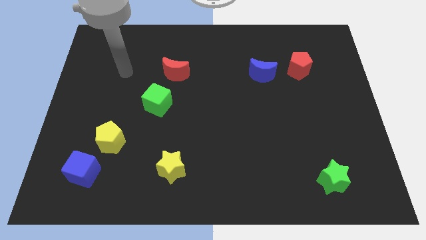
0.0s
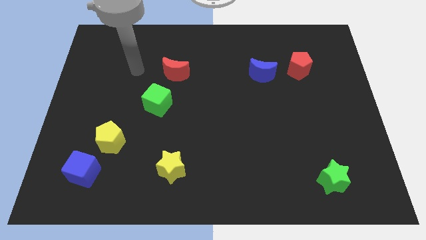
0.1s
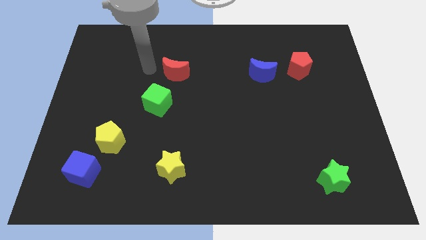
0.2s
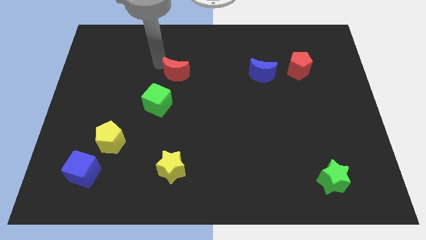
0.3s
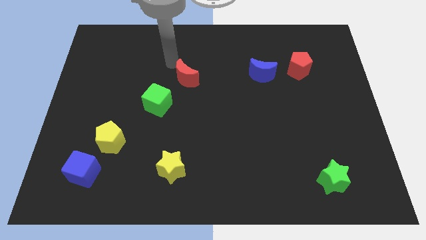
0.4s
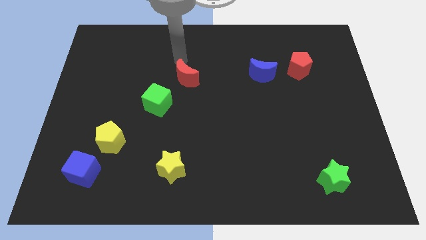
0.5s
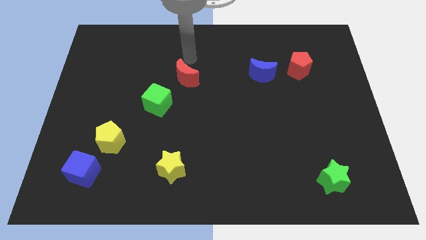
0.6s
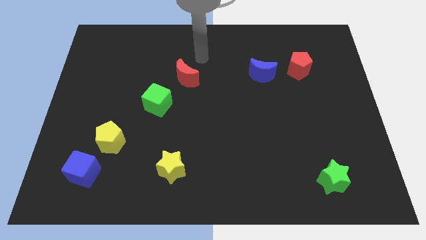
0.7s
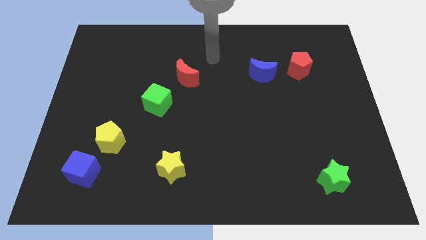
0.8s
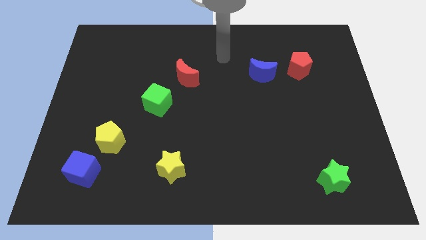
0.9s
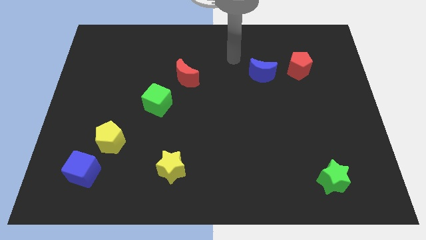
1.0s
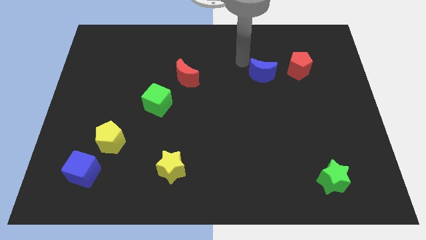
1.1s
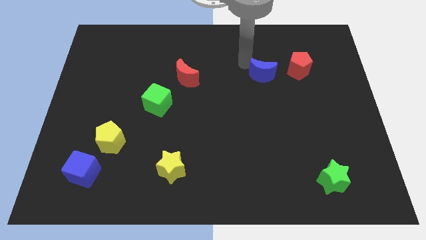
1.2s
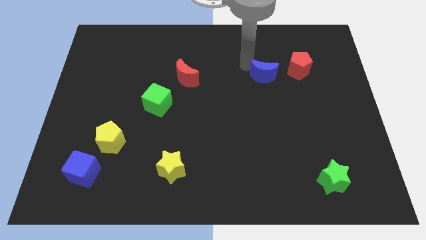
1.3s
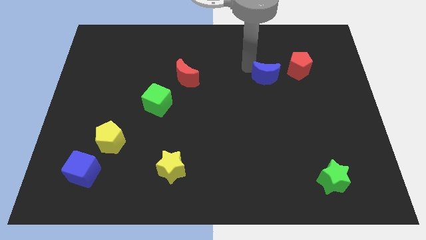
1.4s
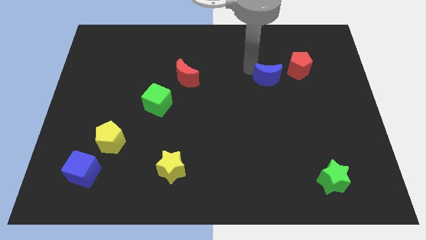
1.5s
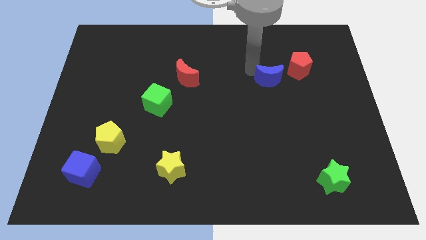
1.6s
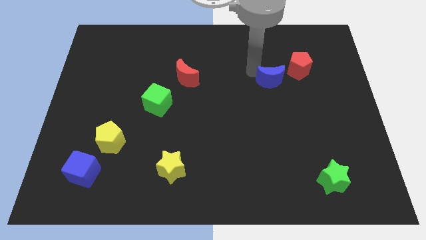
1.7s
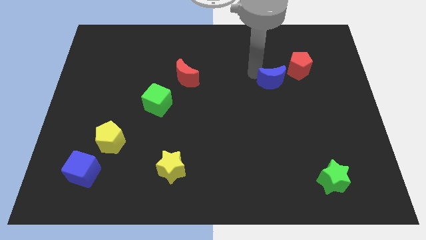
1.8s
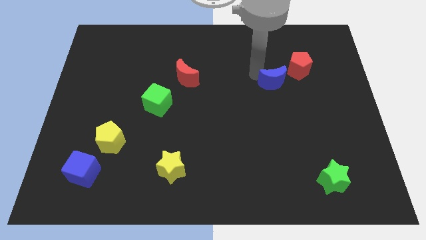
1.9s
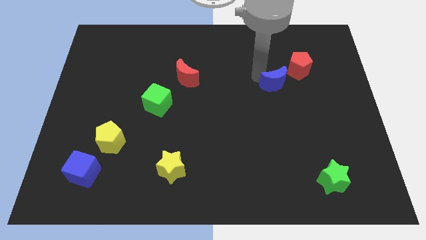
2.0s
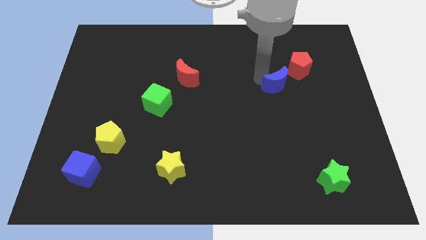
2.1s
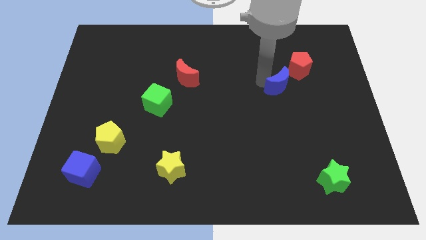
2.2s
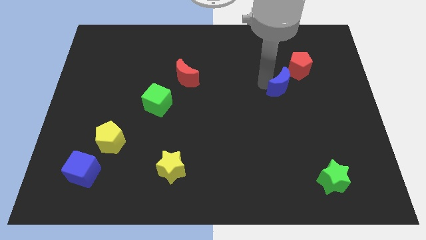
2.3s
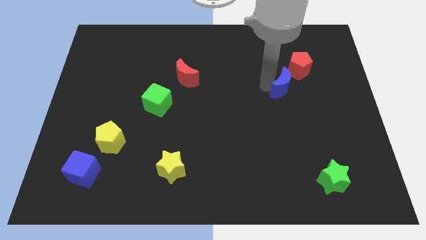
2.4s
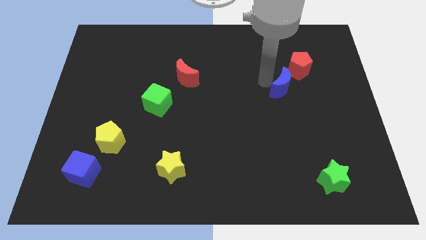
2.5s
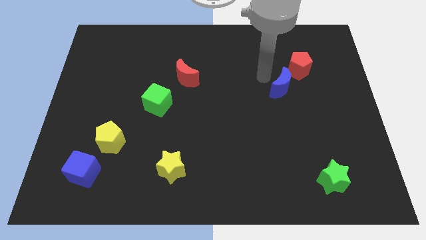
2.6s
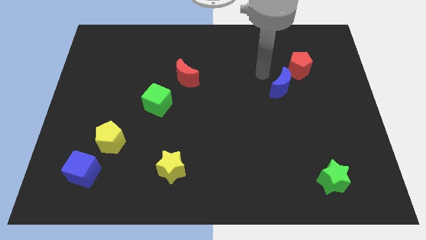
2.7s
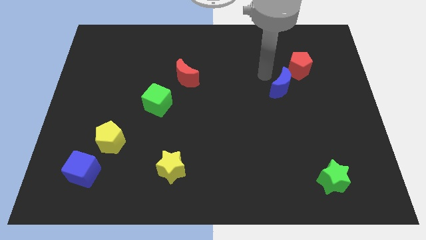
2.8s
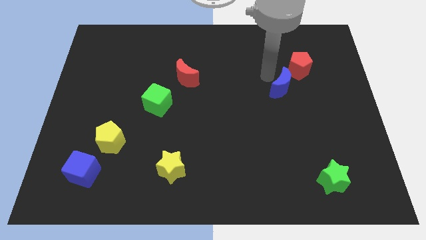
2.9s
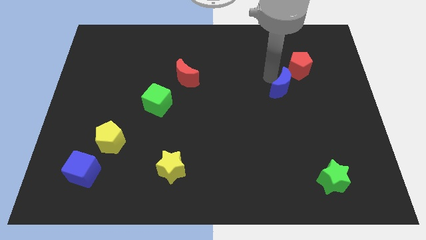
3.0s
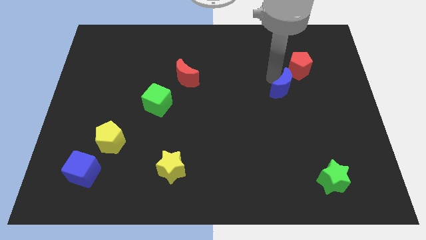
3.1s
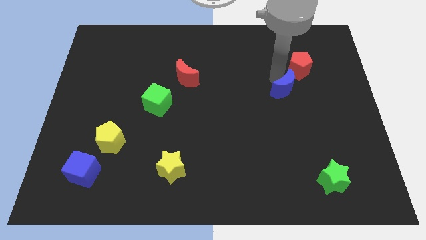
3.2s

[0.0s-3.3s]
slightly move the blue moon downwards and then right

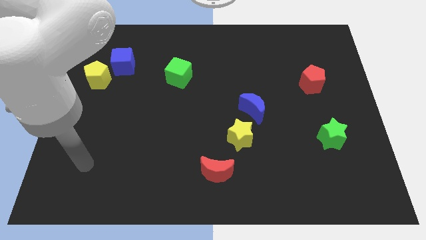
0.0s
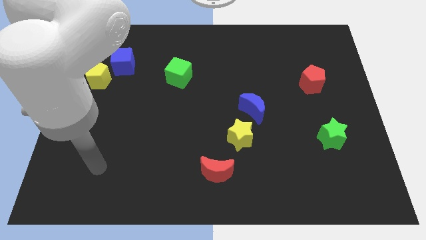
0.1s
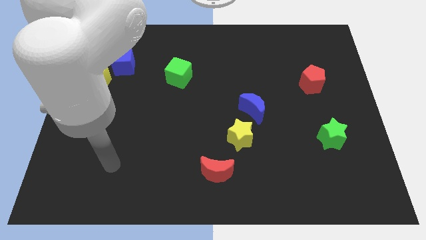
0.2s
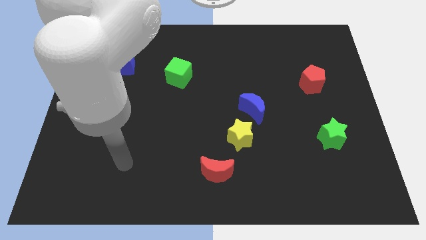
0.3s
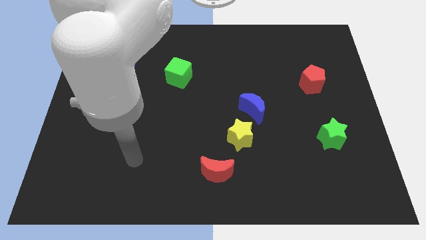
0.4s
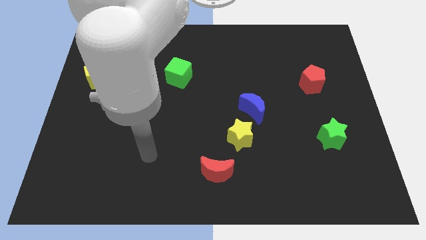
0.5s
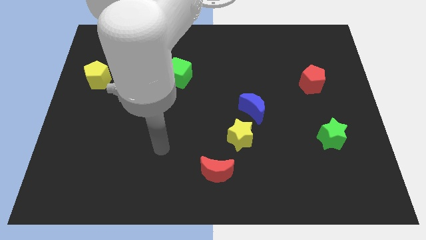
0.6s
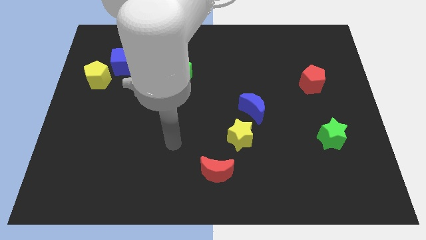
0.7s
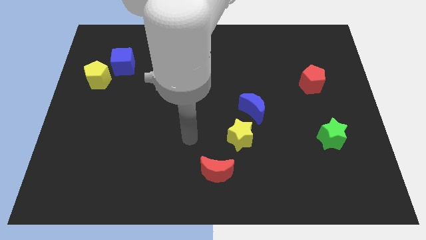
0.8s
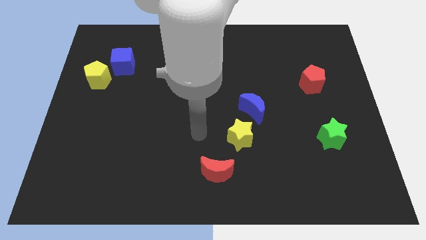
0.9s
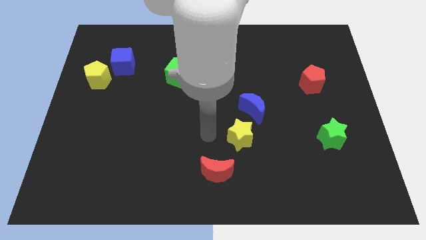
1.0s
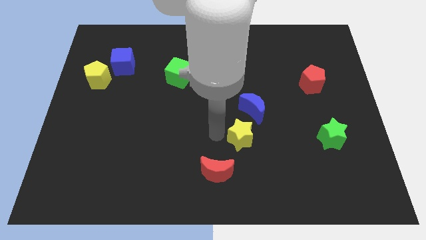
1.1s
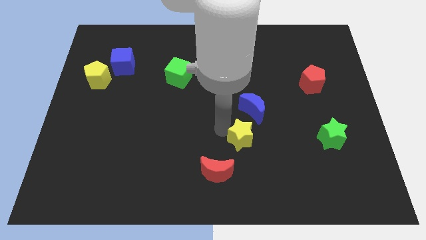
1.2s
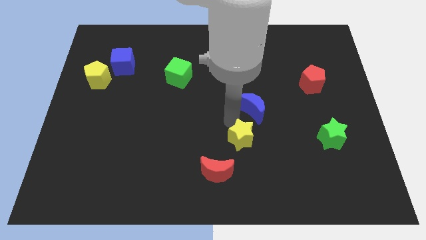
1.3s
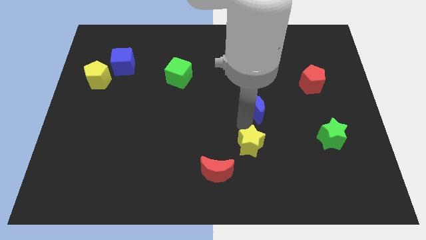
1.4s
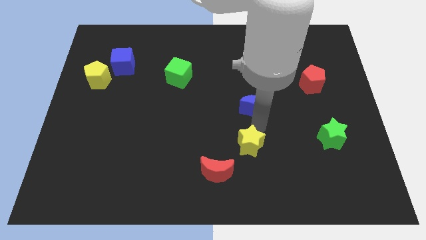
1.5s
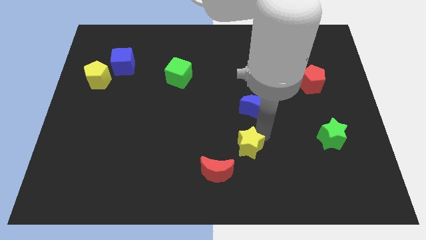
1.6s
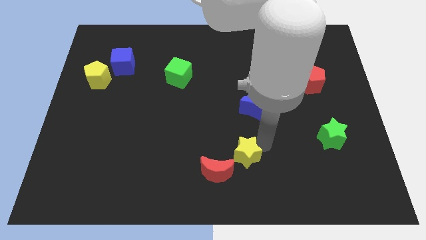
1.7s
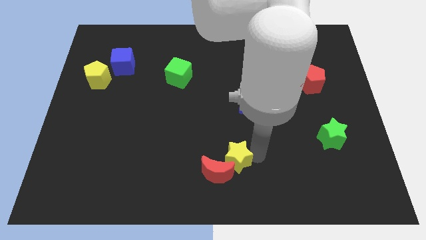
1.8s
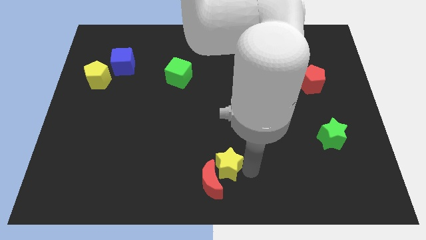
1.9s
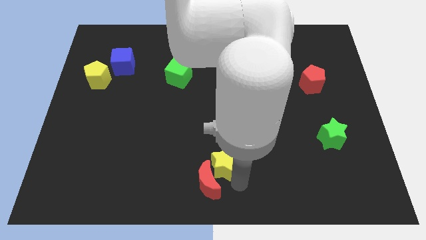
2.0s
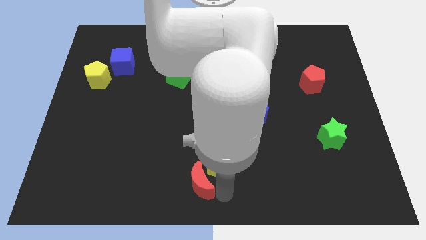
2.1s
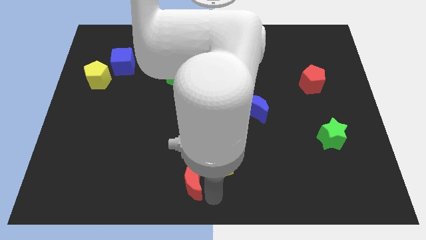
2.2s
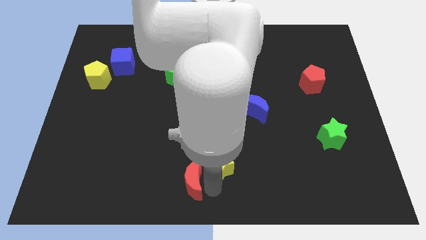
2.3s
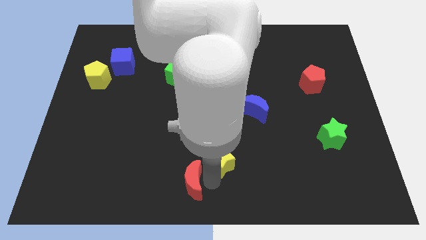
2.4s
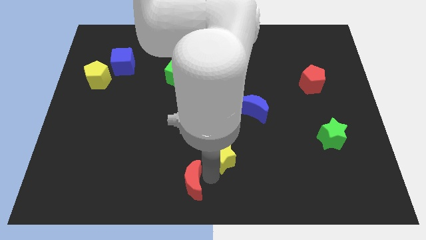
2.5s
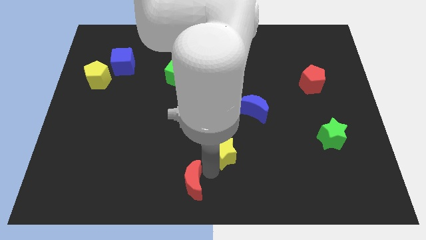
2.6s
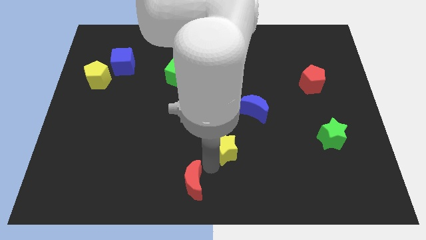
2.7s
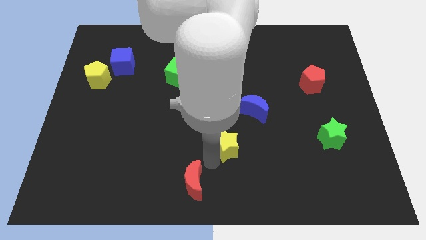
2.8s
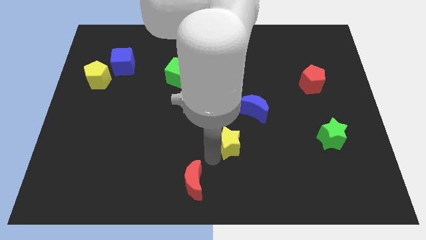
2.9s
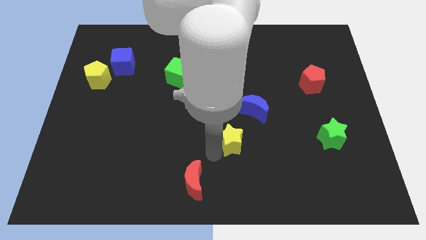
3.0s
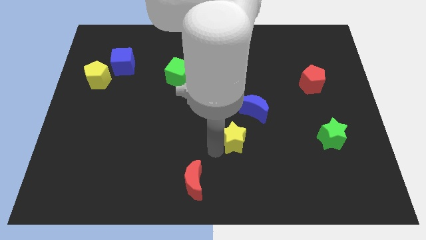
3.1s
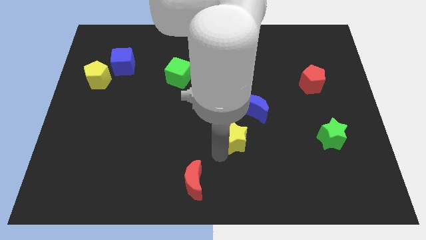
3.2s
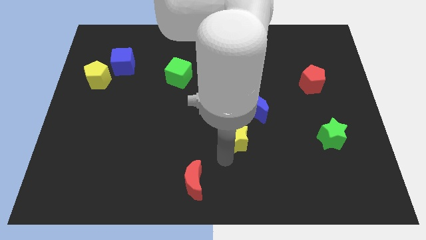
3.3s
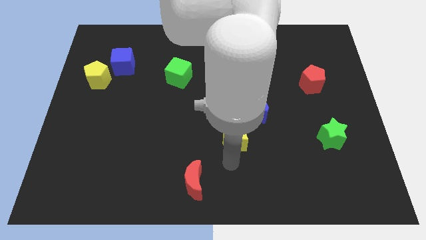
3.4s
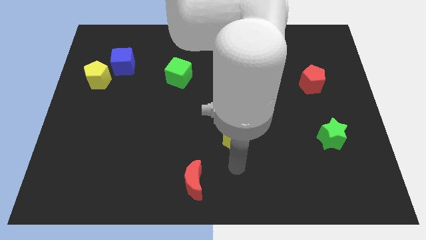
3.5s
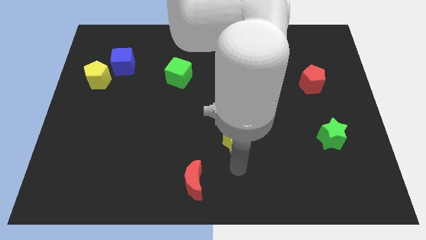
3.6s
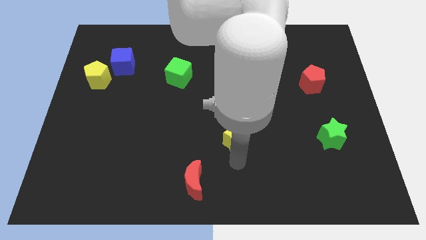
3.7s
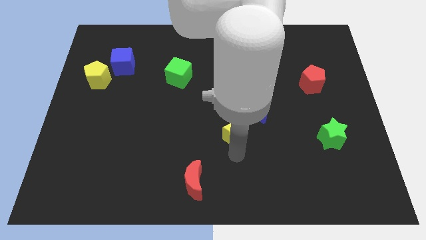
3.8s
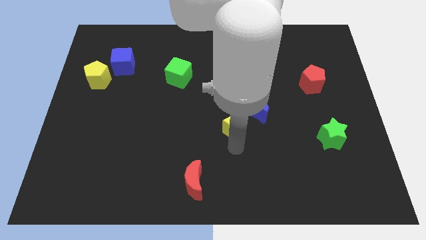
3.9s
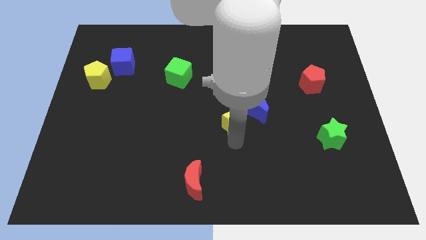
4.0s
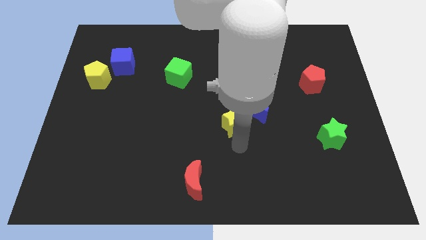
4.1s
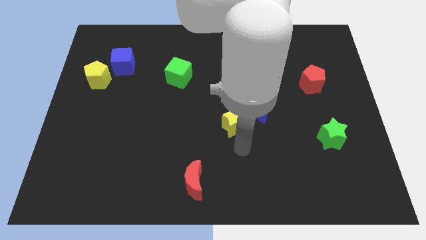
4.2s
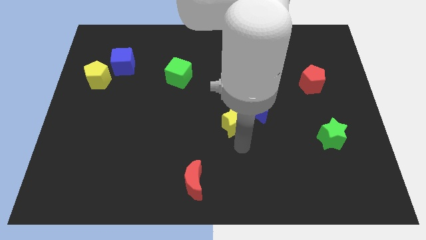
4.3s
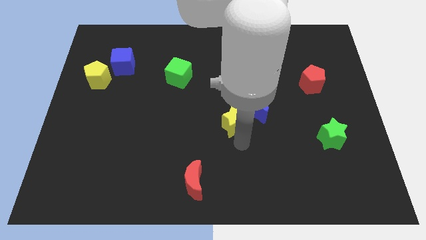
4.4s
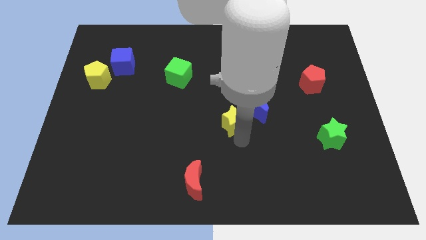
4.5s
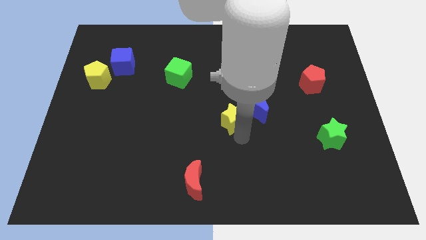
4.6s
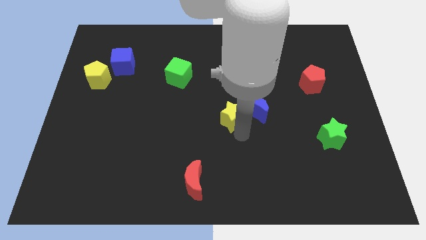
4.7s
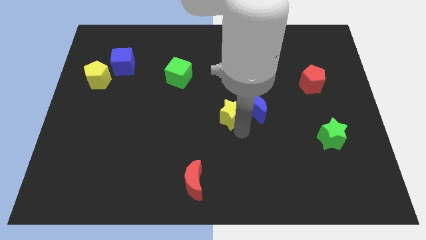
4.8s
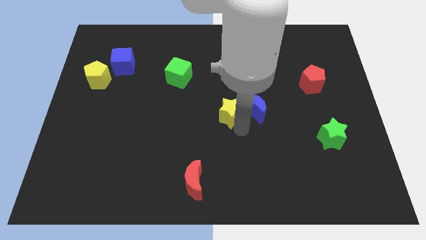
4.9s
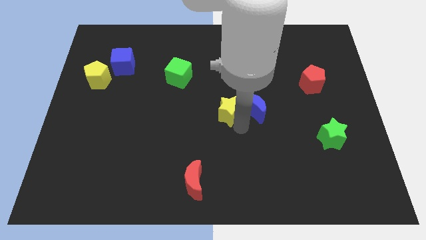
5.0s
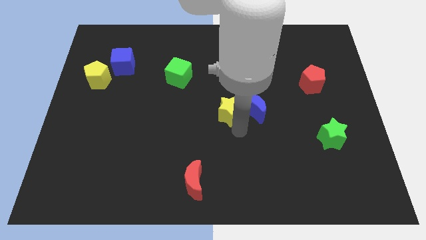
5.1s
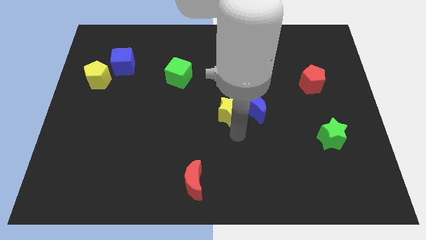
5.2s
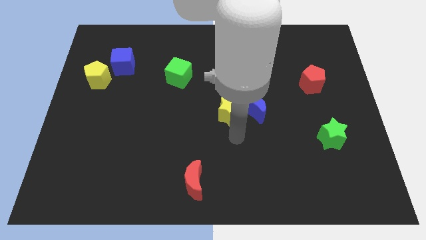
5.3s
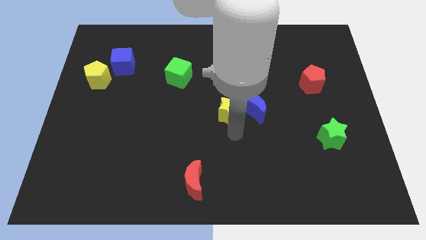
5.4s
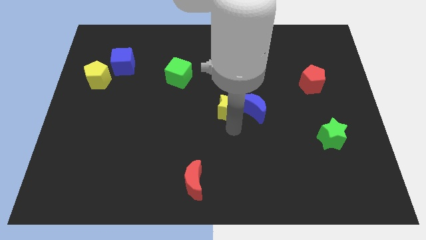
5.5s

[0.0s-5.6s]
move the yellow star upwards a little
